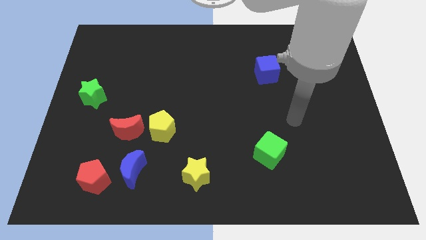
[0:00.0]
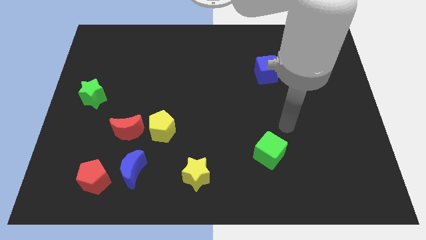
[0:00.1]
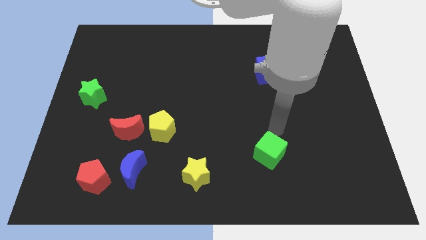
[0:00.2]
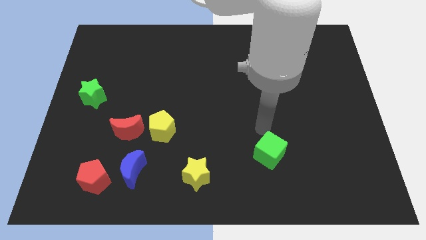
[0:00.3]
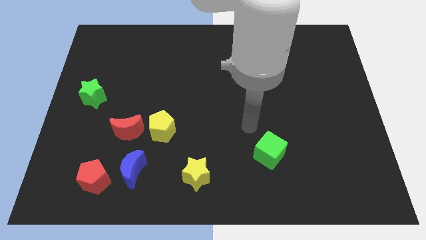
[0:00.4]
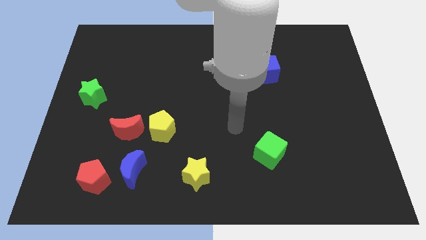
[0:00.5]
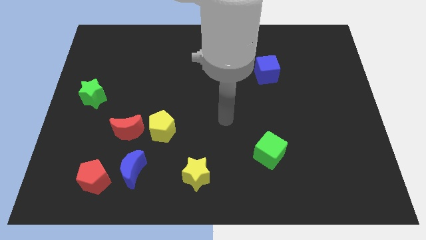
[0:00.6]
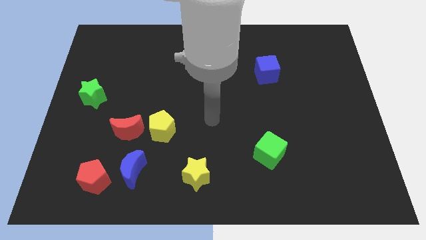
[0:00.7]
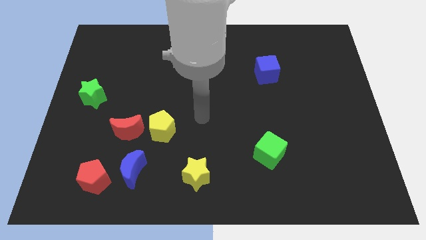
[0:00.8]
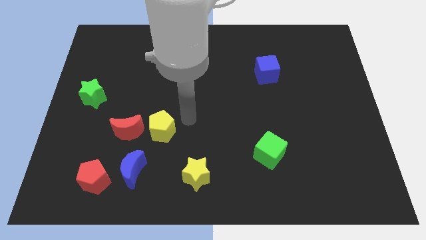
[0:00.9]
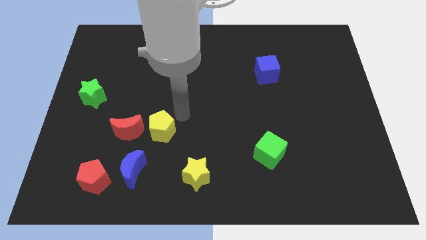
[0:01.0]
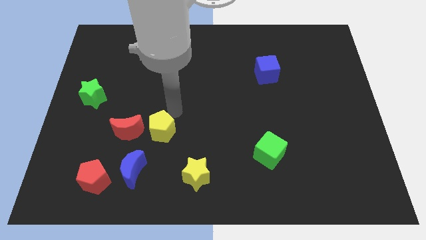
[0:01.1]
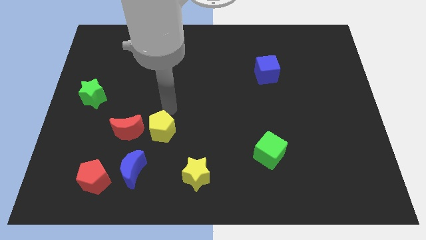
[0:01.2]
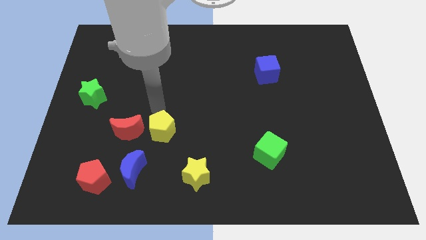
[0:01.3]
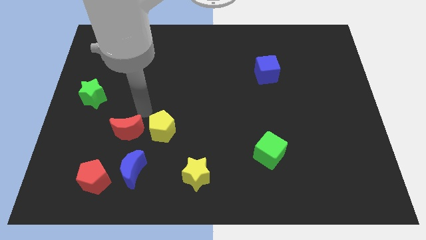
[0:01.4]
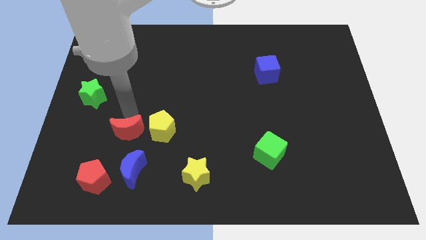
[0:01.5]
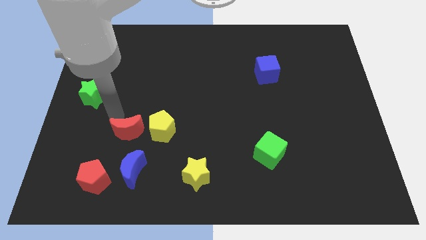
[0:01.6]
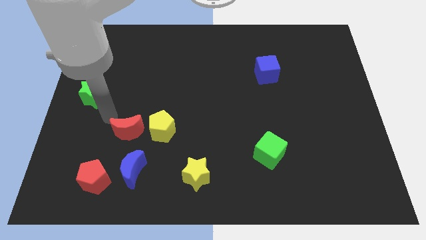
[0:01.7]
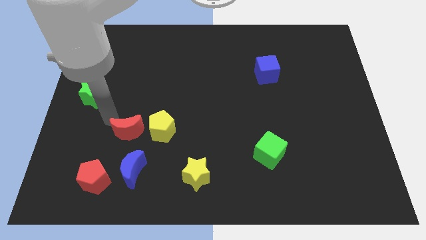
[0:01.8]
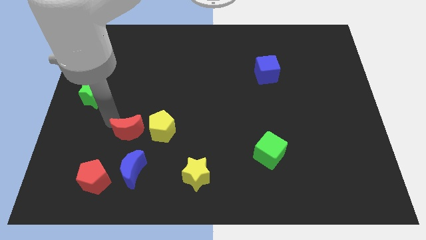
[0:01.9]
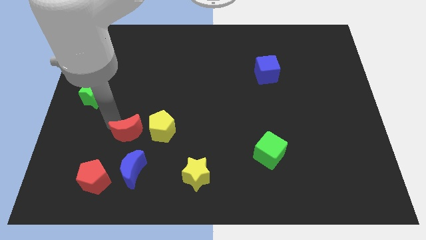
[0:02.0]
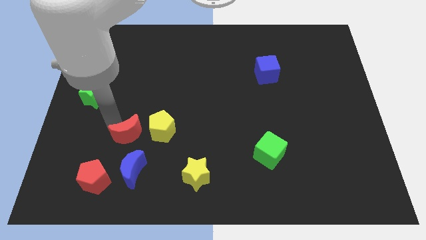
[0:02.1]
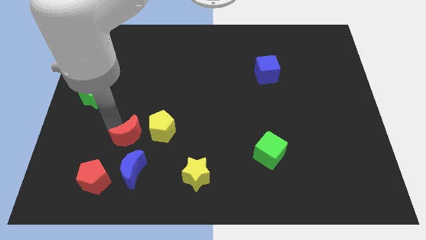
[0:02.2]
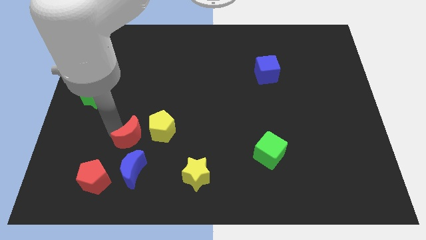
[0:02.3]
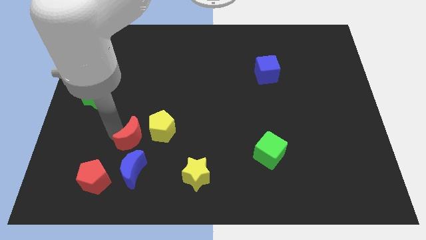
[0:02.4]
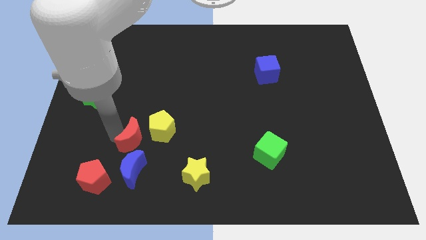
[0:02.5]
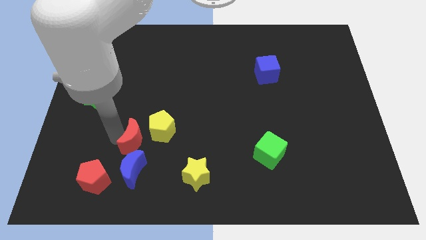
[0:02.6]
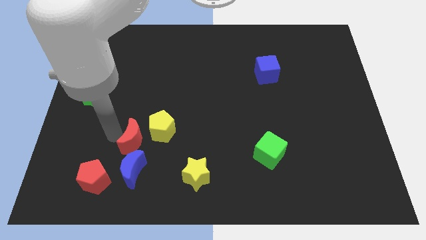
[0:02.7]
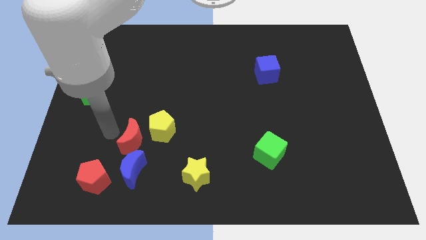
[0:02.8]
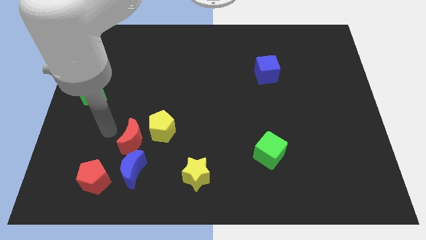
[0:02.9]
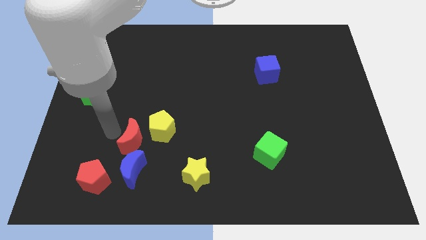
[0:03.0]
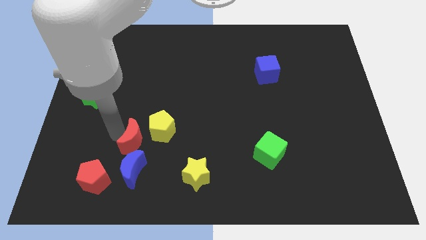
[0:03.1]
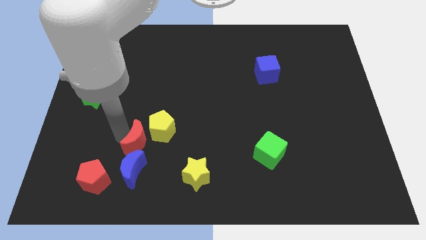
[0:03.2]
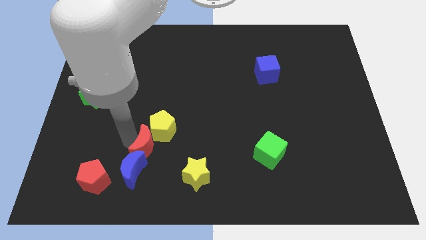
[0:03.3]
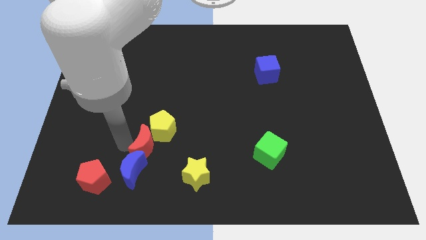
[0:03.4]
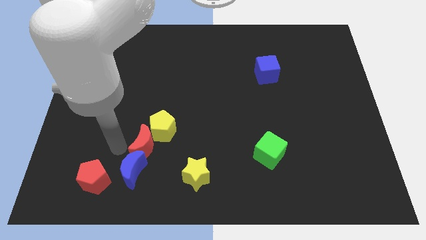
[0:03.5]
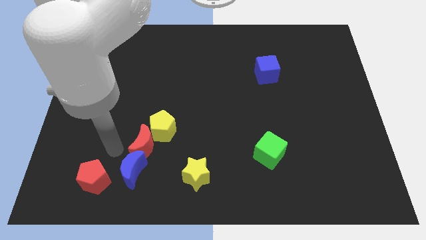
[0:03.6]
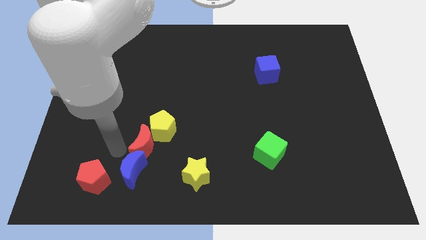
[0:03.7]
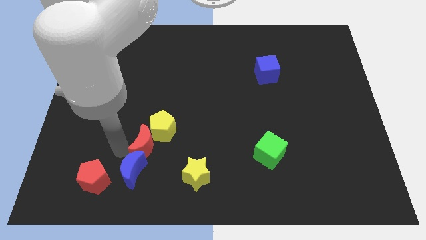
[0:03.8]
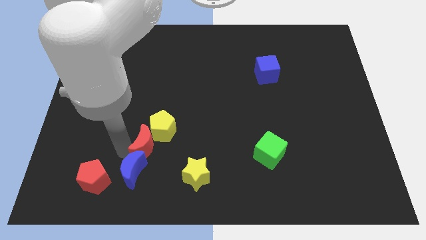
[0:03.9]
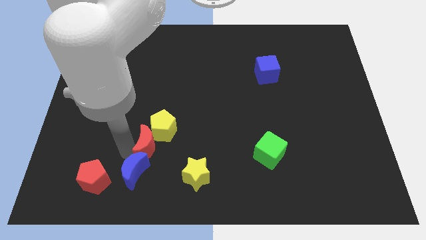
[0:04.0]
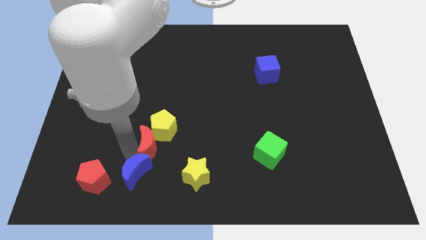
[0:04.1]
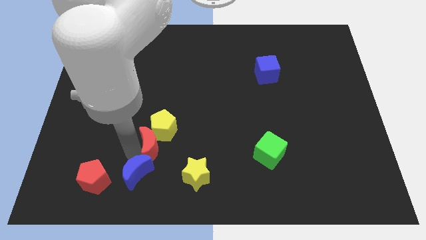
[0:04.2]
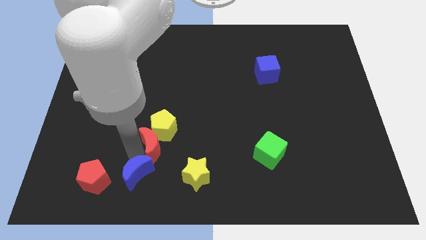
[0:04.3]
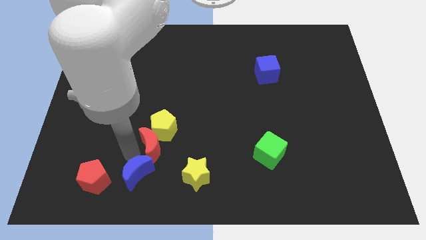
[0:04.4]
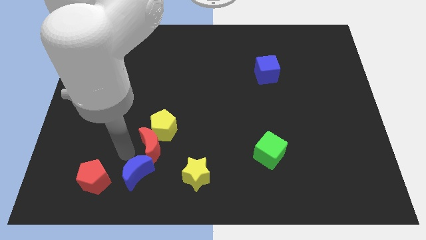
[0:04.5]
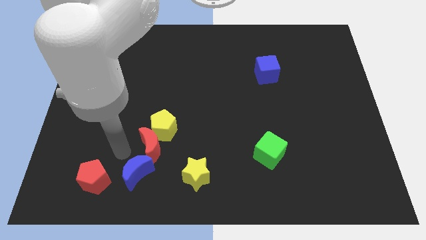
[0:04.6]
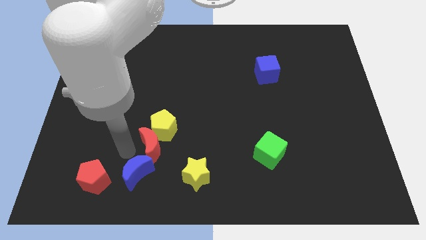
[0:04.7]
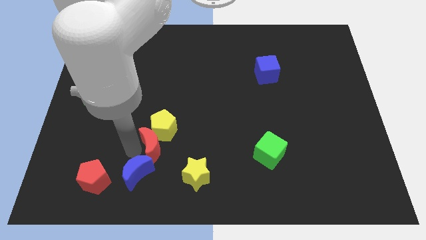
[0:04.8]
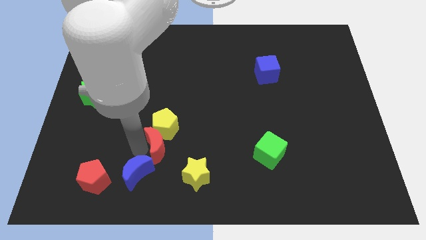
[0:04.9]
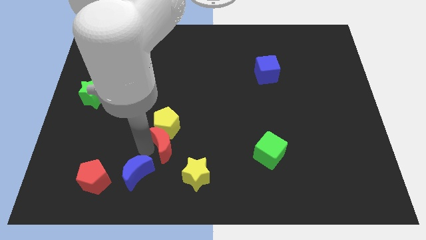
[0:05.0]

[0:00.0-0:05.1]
slightly push the red moon to the right

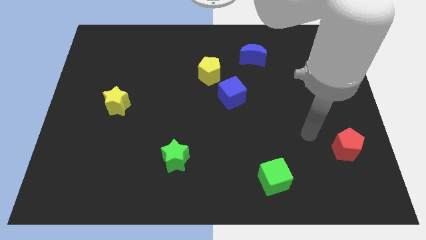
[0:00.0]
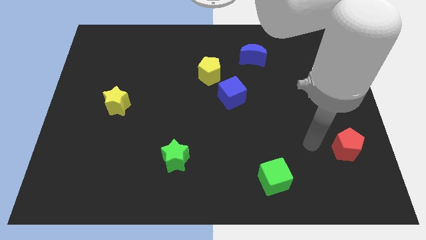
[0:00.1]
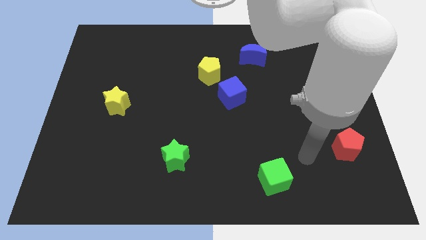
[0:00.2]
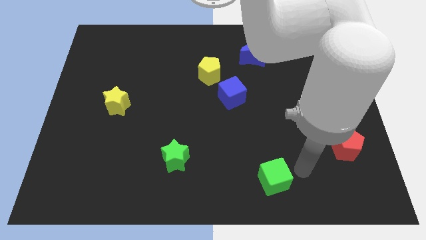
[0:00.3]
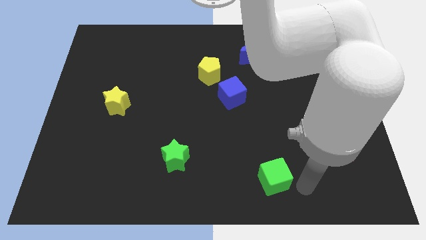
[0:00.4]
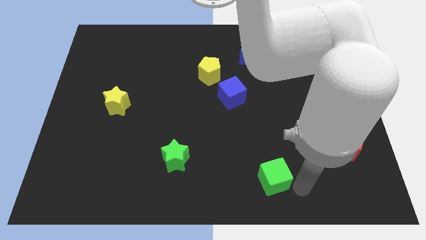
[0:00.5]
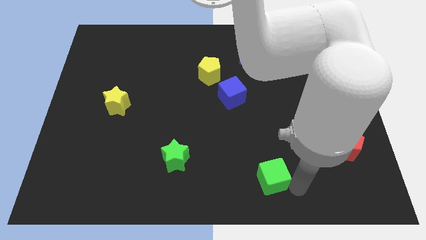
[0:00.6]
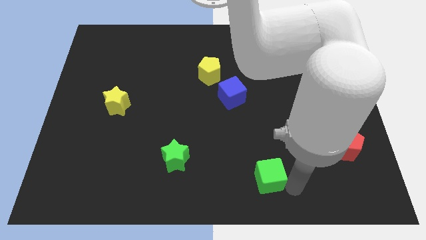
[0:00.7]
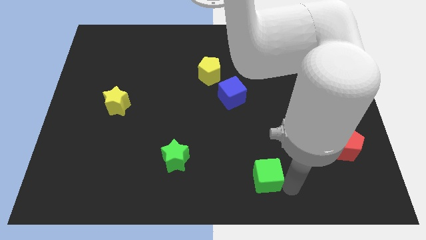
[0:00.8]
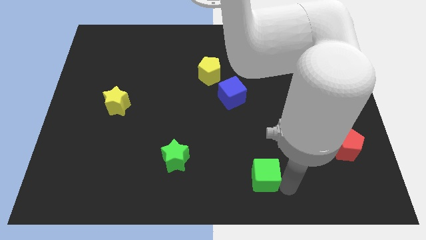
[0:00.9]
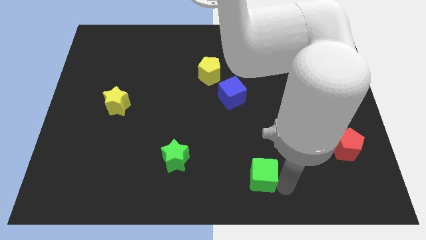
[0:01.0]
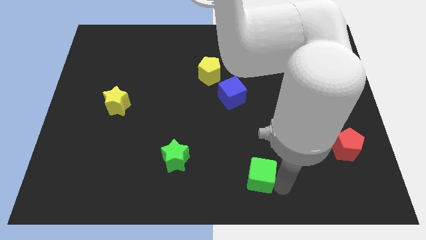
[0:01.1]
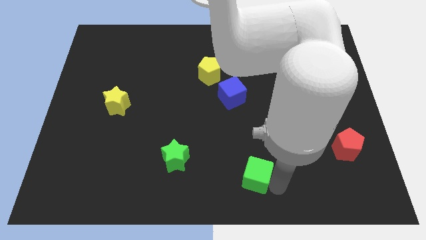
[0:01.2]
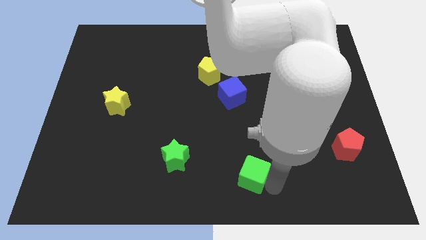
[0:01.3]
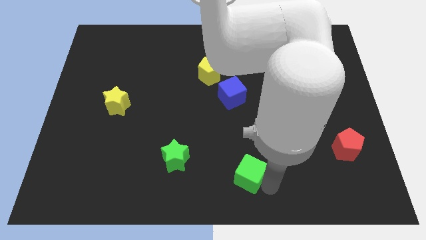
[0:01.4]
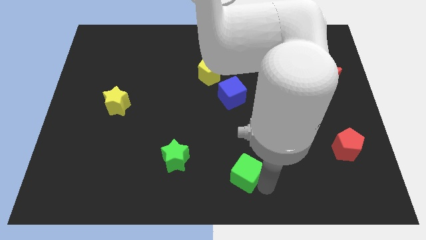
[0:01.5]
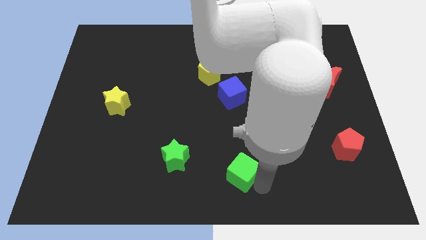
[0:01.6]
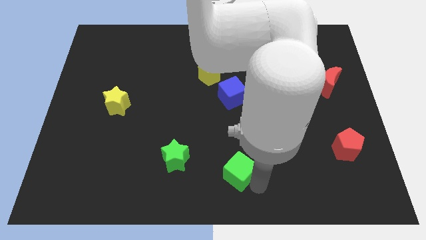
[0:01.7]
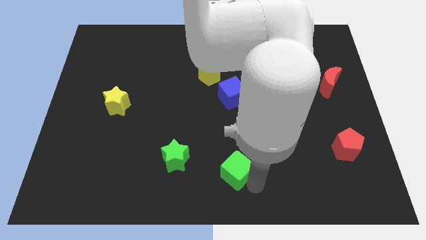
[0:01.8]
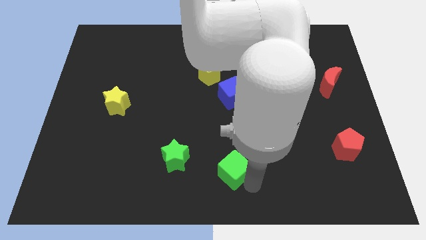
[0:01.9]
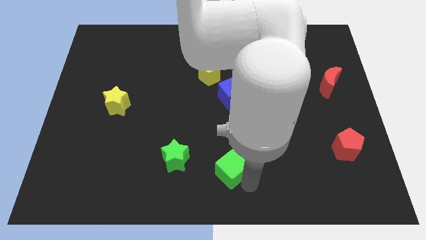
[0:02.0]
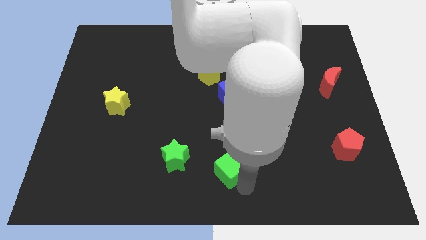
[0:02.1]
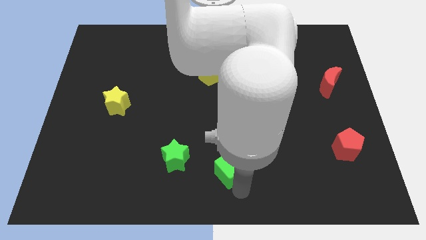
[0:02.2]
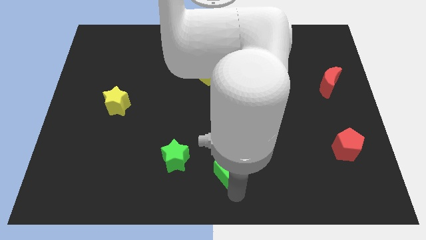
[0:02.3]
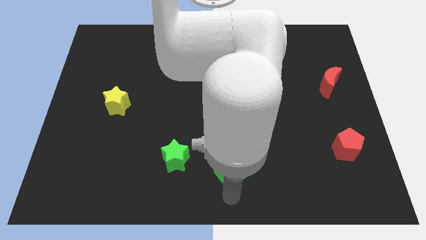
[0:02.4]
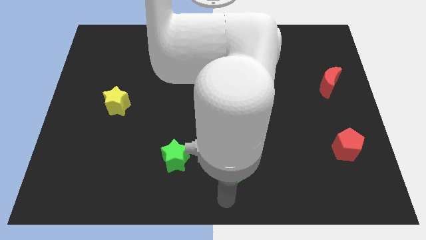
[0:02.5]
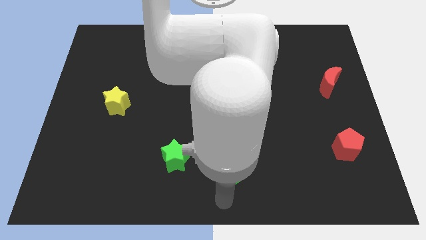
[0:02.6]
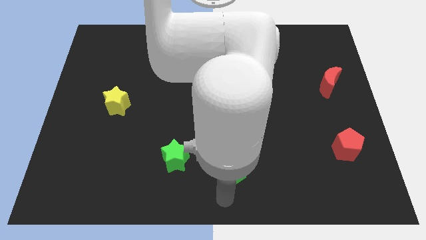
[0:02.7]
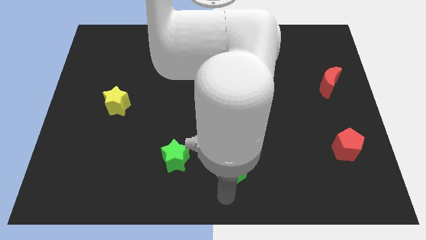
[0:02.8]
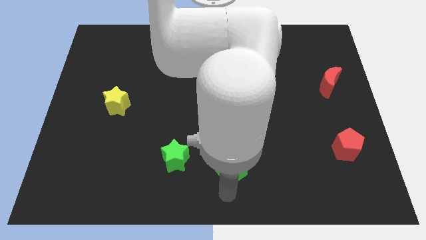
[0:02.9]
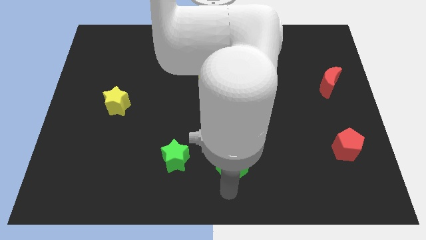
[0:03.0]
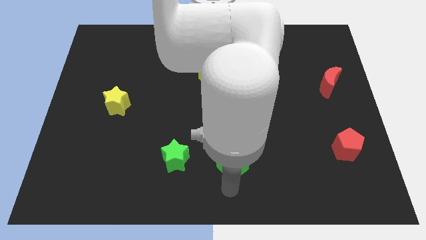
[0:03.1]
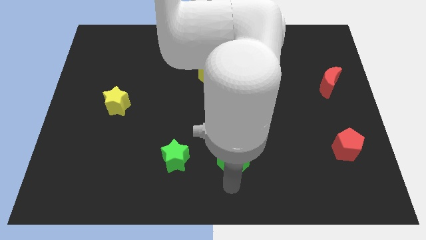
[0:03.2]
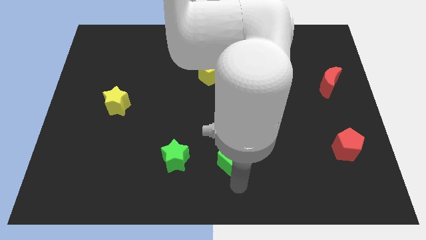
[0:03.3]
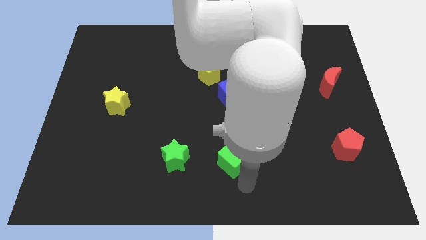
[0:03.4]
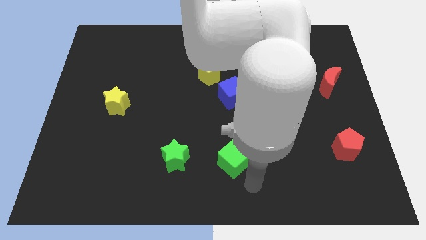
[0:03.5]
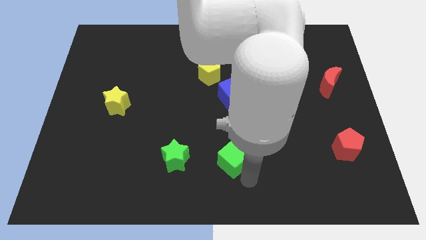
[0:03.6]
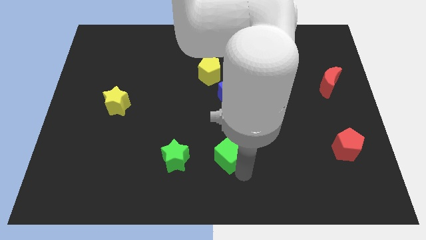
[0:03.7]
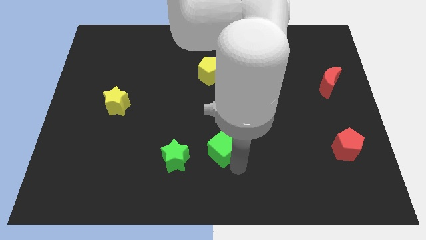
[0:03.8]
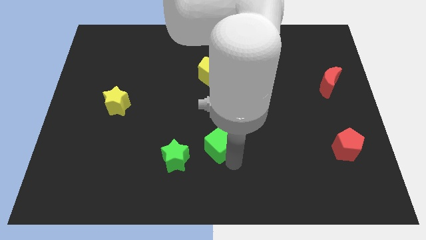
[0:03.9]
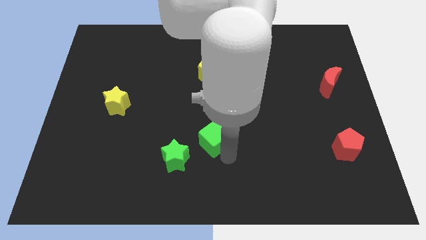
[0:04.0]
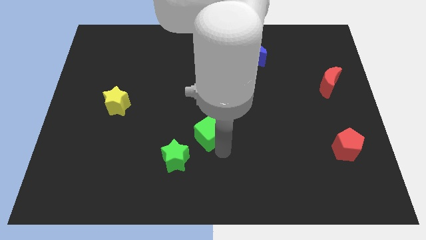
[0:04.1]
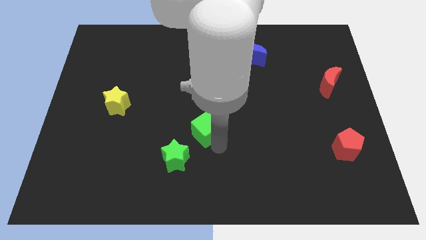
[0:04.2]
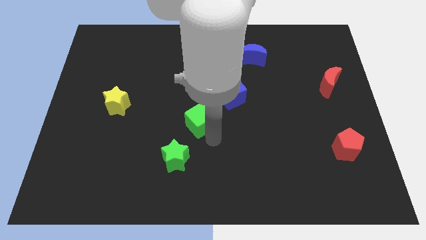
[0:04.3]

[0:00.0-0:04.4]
push the green cube up and left diagonally
